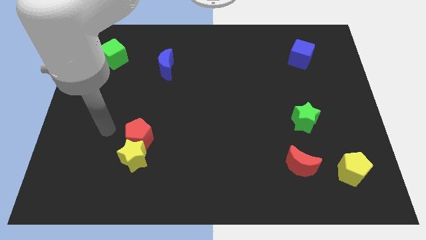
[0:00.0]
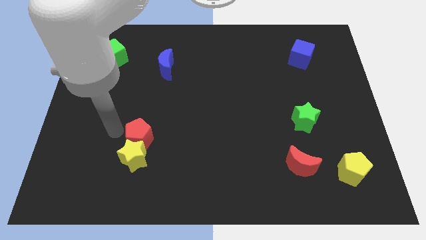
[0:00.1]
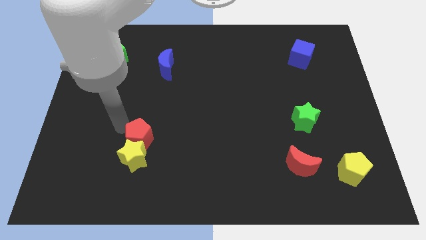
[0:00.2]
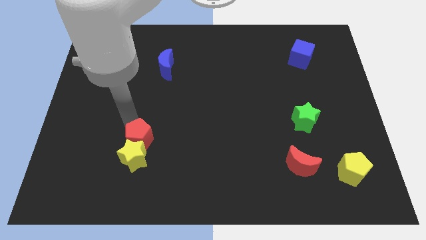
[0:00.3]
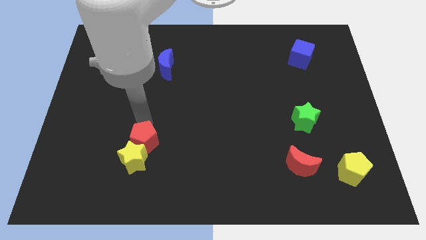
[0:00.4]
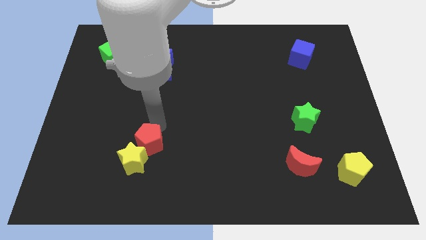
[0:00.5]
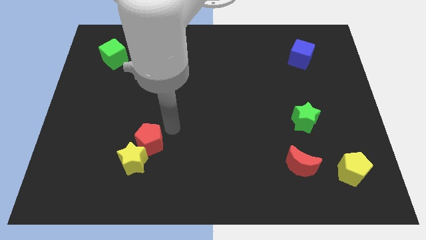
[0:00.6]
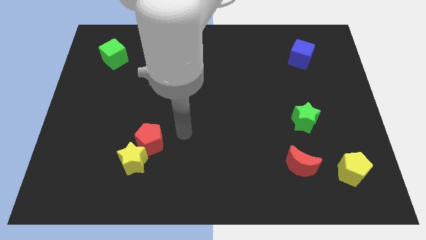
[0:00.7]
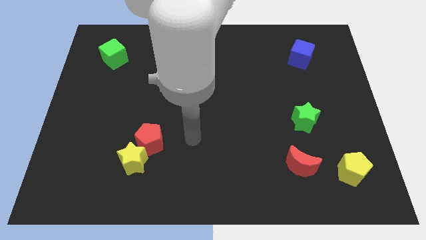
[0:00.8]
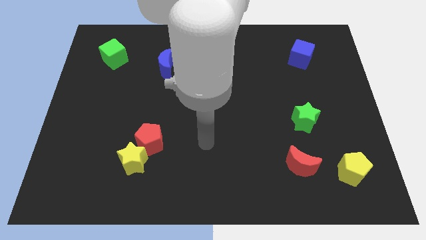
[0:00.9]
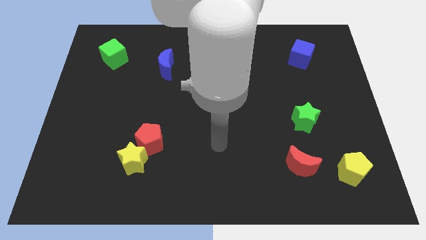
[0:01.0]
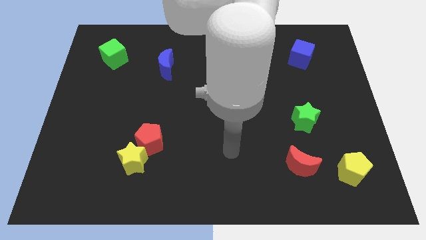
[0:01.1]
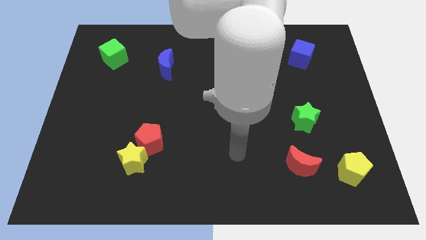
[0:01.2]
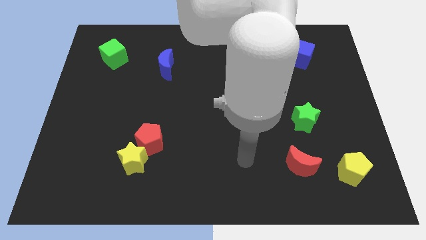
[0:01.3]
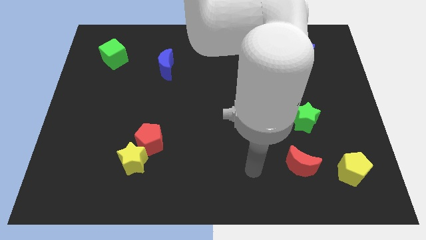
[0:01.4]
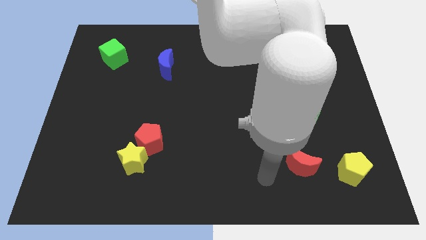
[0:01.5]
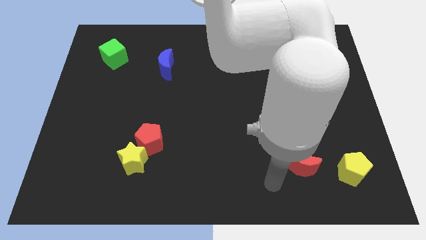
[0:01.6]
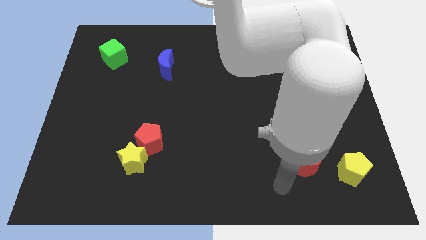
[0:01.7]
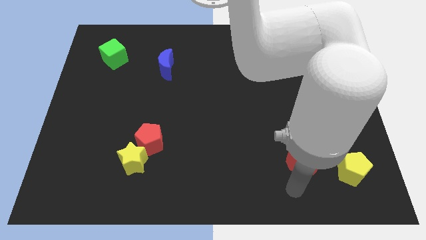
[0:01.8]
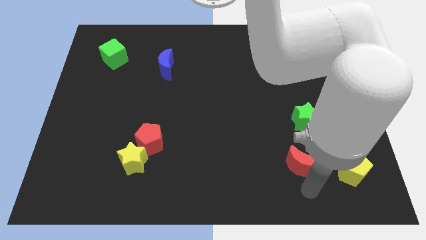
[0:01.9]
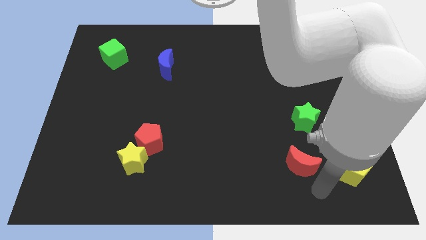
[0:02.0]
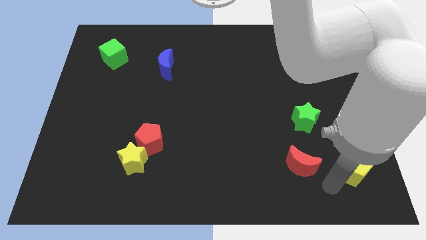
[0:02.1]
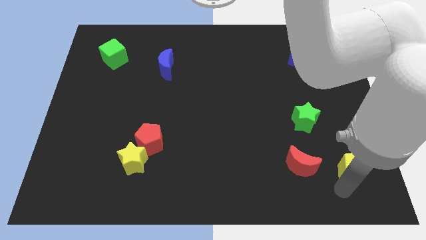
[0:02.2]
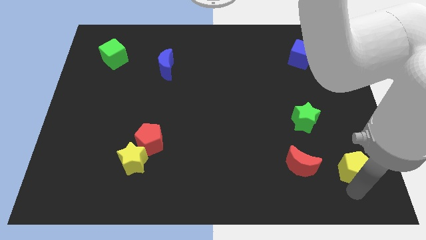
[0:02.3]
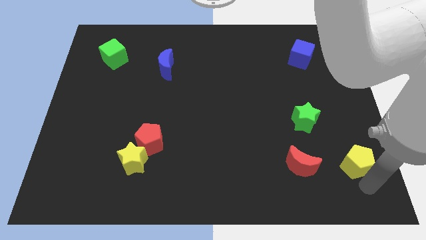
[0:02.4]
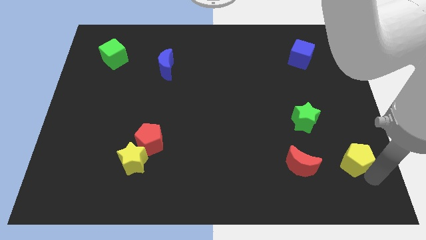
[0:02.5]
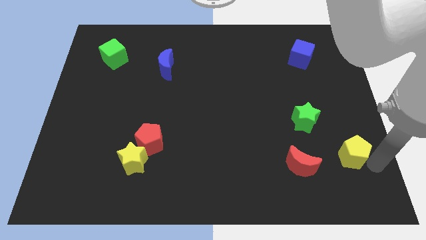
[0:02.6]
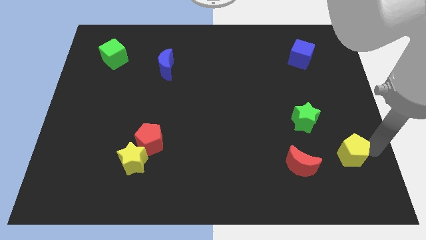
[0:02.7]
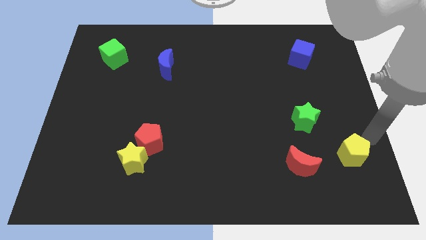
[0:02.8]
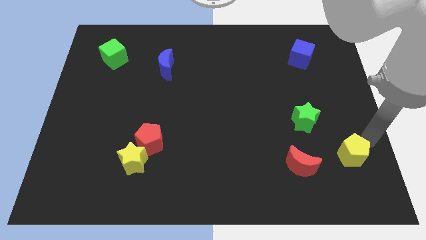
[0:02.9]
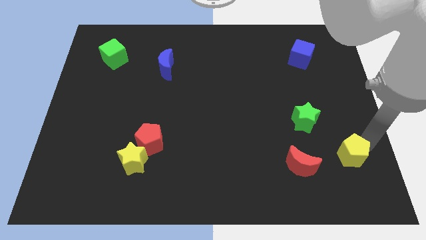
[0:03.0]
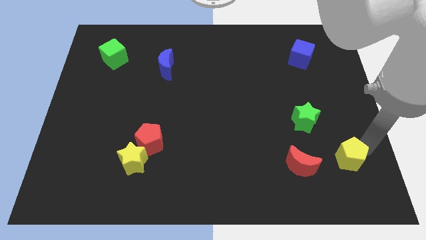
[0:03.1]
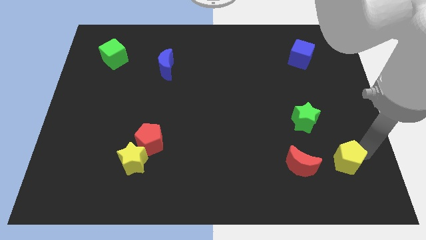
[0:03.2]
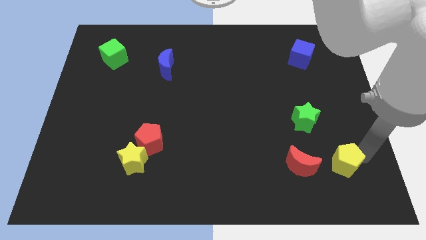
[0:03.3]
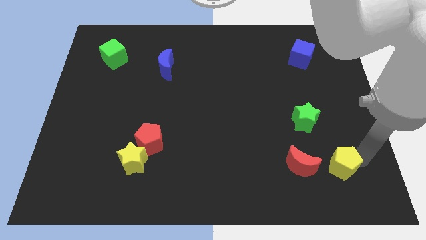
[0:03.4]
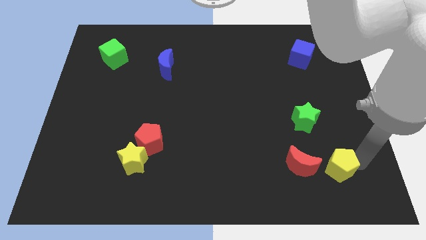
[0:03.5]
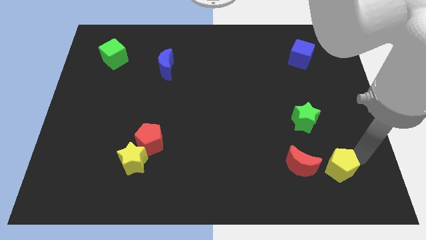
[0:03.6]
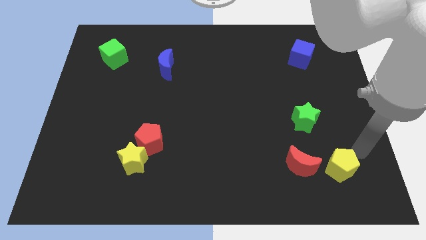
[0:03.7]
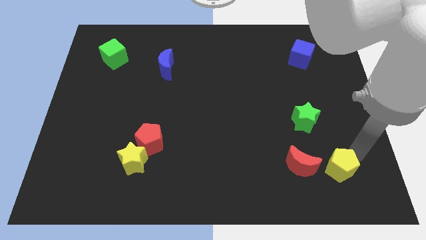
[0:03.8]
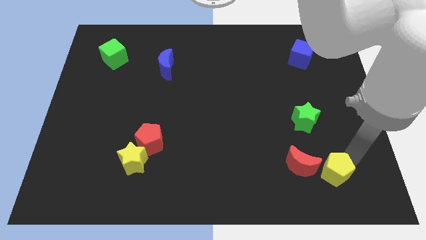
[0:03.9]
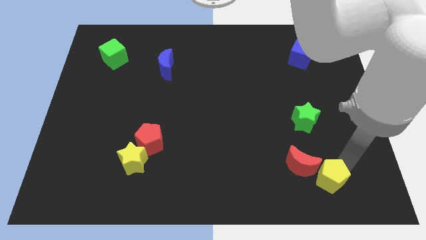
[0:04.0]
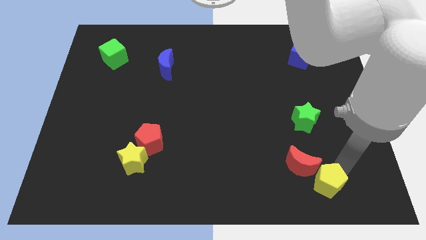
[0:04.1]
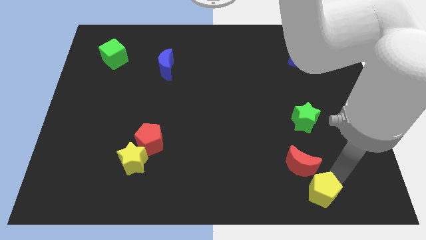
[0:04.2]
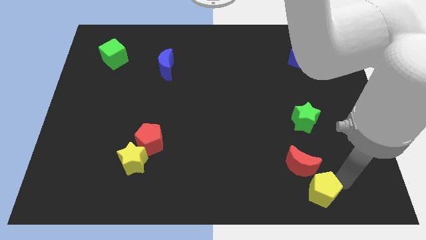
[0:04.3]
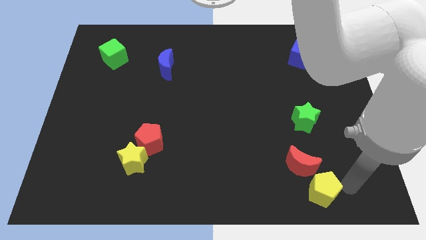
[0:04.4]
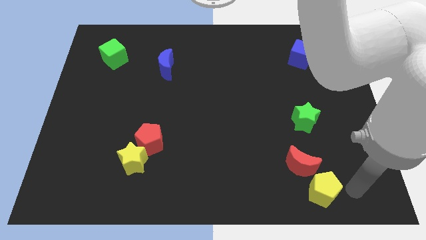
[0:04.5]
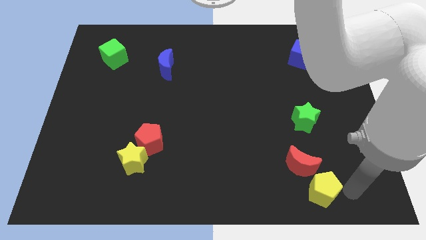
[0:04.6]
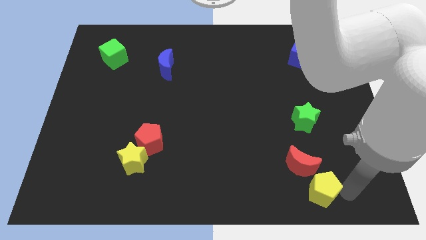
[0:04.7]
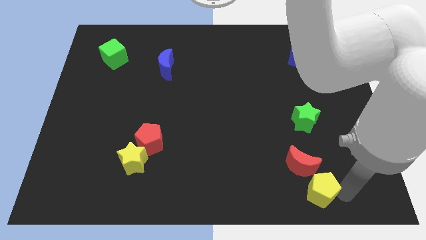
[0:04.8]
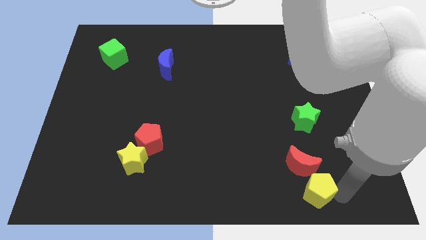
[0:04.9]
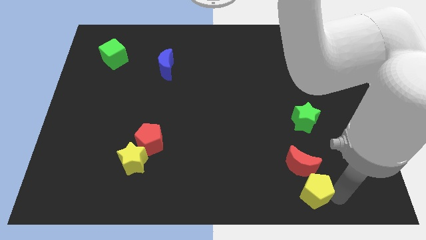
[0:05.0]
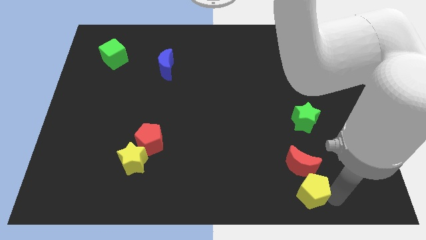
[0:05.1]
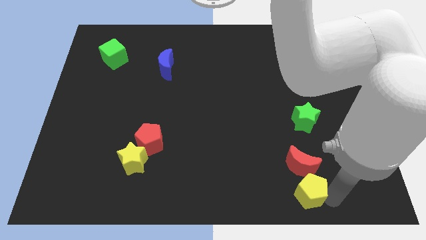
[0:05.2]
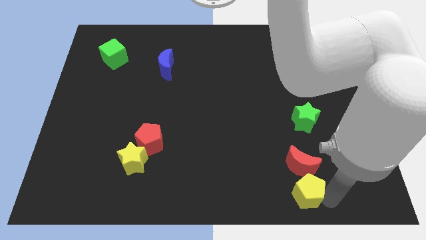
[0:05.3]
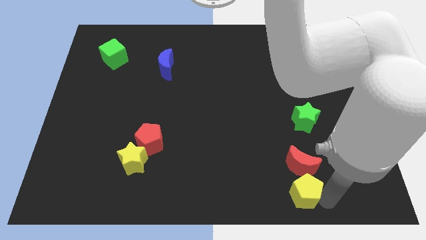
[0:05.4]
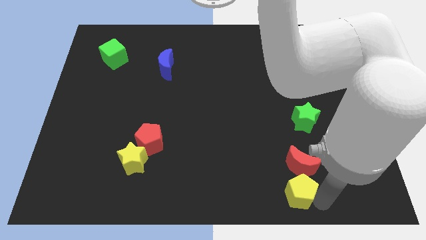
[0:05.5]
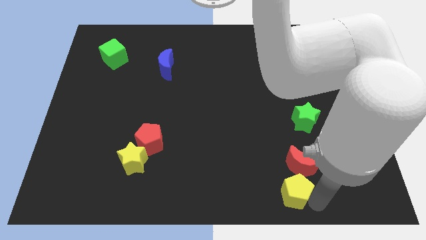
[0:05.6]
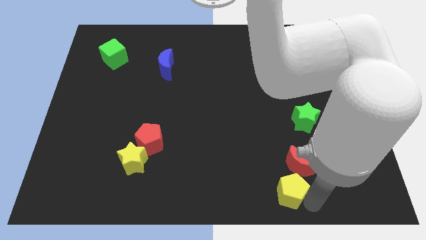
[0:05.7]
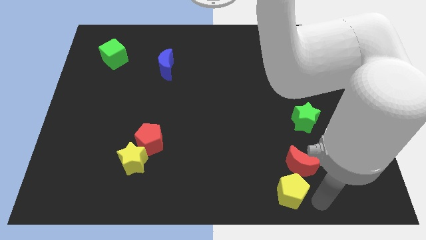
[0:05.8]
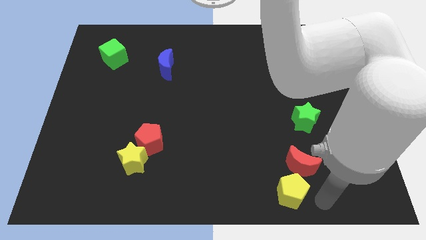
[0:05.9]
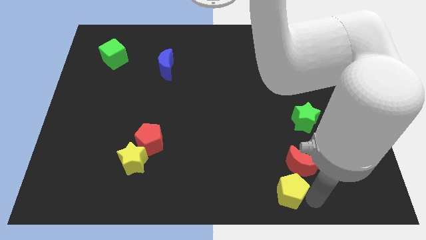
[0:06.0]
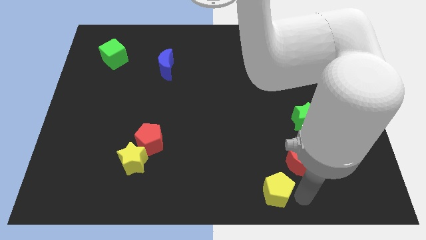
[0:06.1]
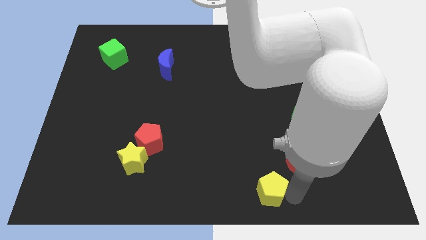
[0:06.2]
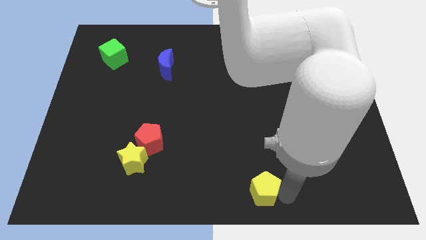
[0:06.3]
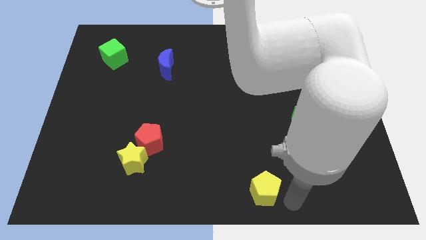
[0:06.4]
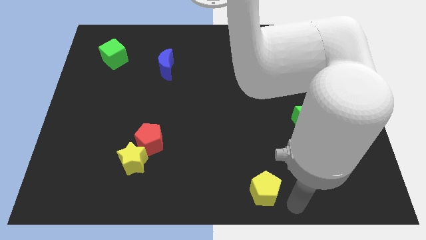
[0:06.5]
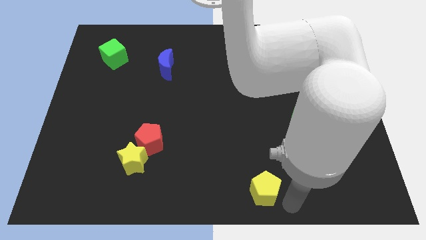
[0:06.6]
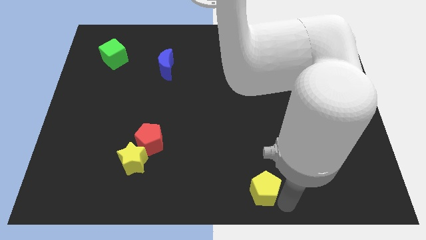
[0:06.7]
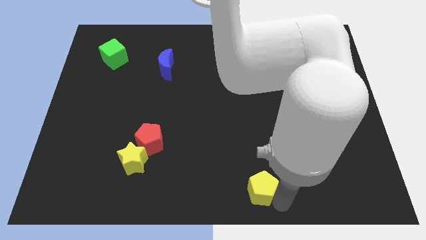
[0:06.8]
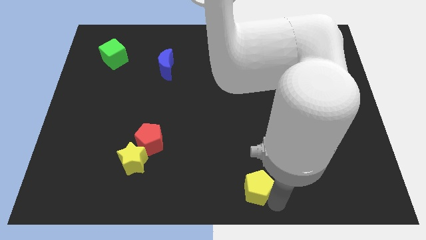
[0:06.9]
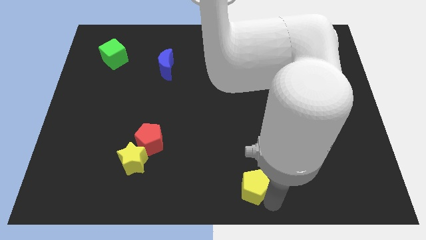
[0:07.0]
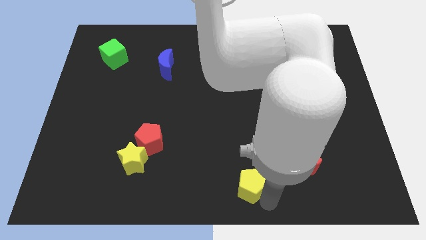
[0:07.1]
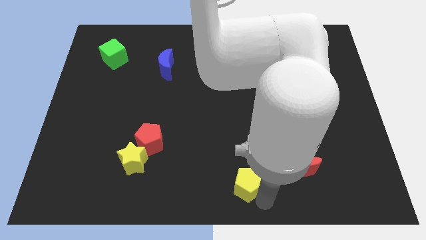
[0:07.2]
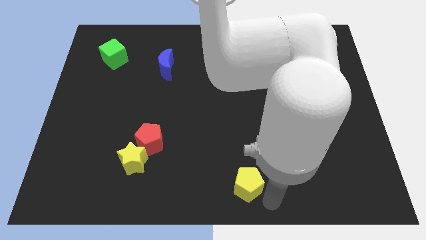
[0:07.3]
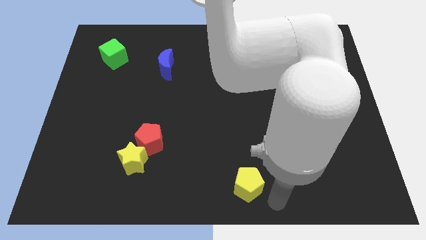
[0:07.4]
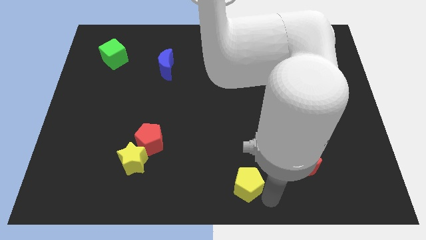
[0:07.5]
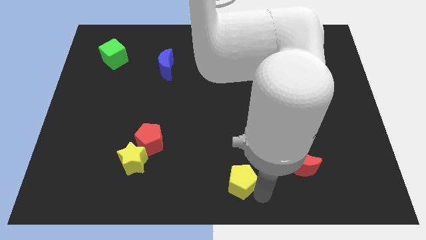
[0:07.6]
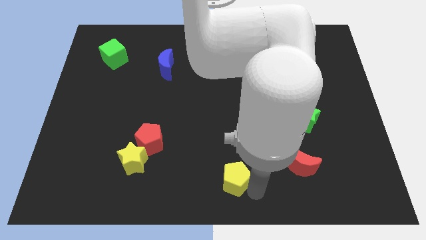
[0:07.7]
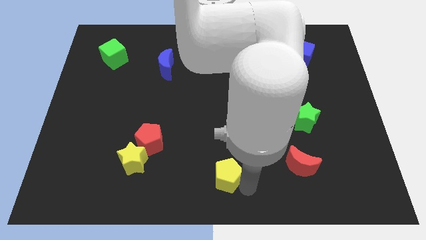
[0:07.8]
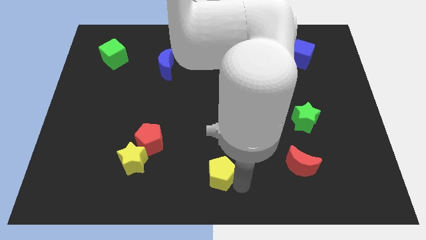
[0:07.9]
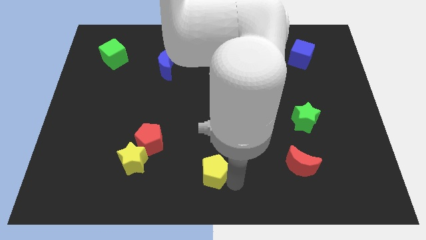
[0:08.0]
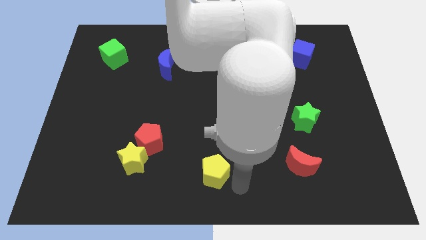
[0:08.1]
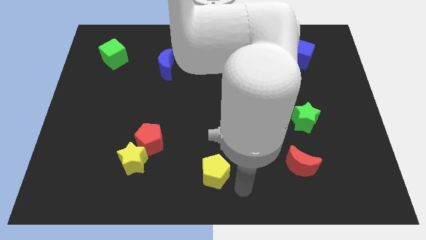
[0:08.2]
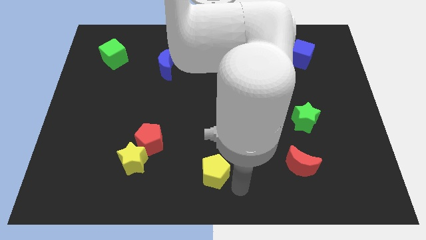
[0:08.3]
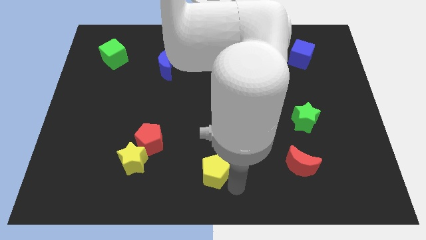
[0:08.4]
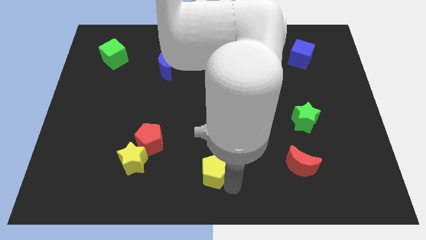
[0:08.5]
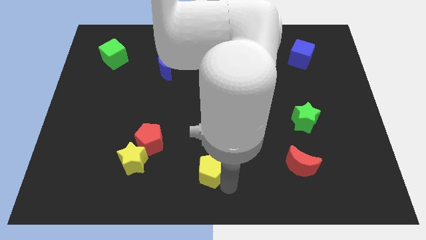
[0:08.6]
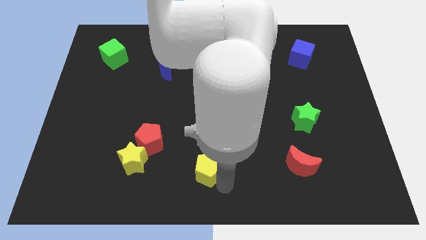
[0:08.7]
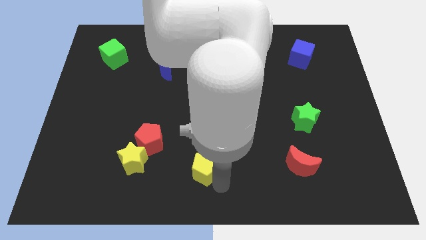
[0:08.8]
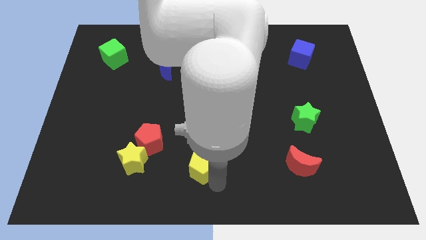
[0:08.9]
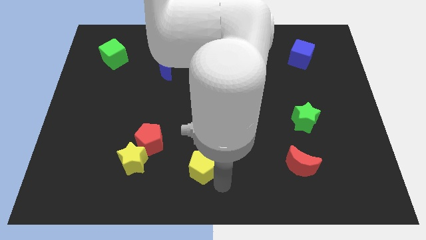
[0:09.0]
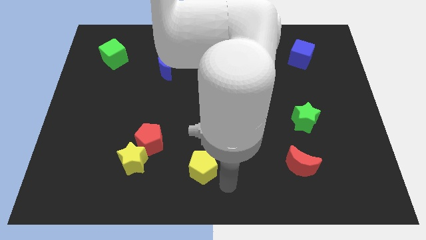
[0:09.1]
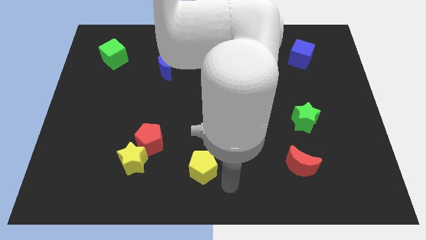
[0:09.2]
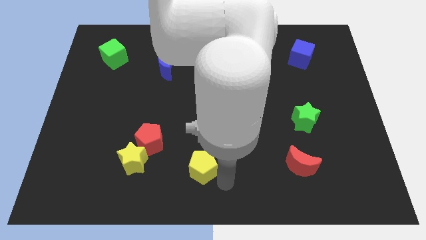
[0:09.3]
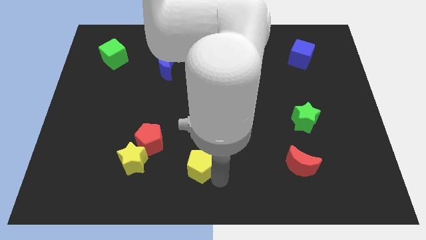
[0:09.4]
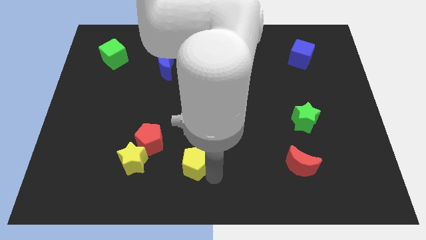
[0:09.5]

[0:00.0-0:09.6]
put the yellow pentagon diagonally down and to the right of the red pentagon
